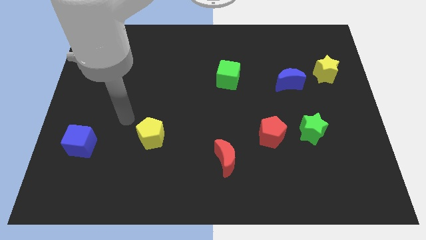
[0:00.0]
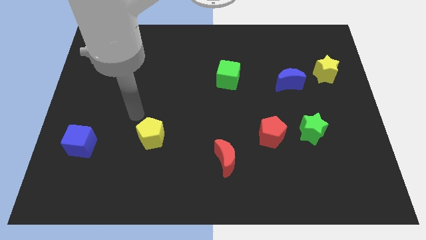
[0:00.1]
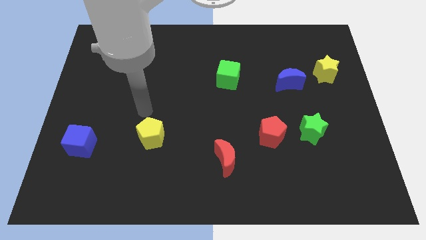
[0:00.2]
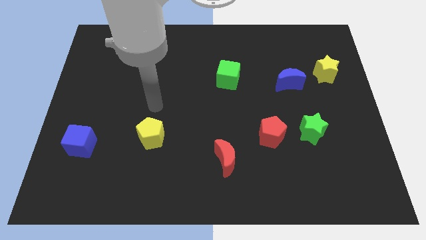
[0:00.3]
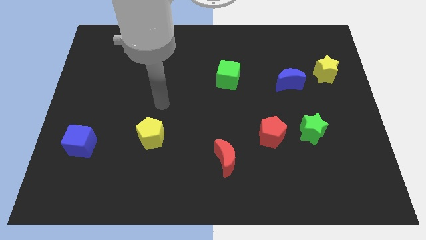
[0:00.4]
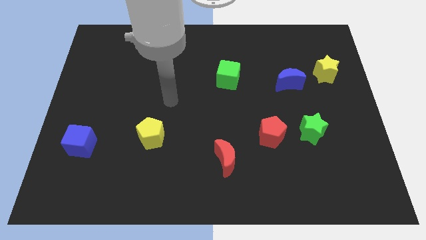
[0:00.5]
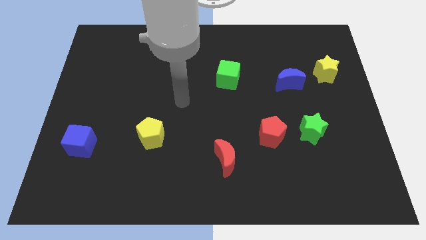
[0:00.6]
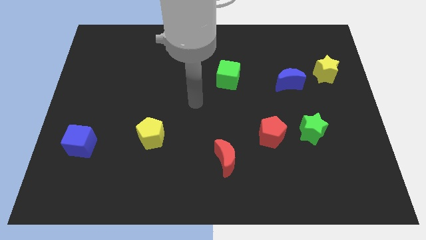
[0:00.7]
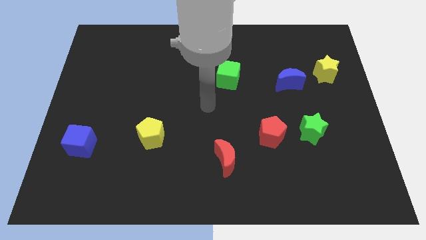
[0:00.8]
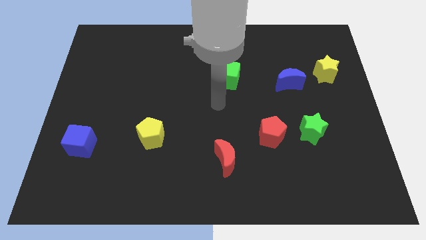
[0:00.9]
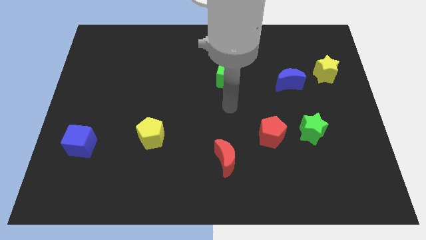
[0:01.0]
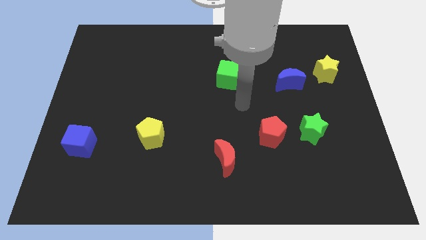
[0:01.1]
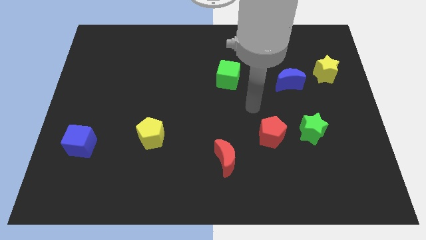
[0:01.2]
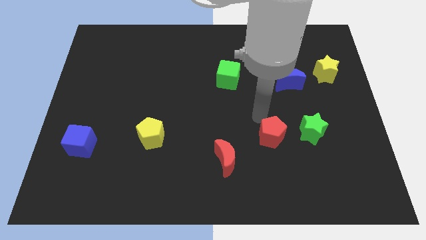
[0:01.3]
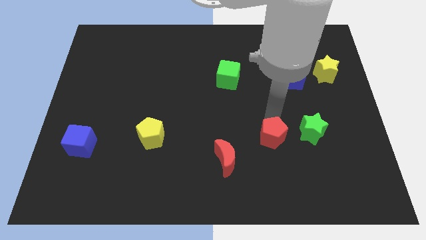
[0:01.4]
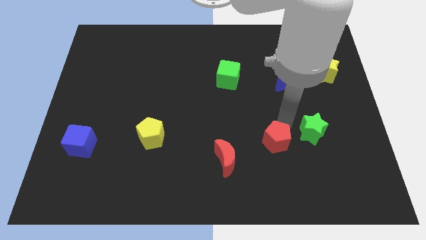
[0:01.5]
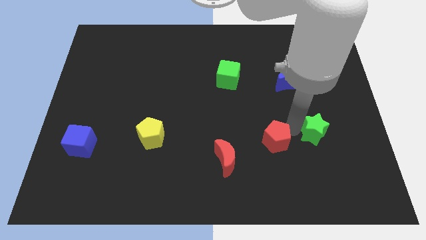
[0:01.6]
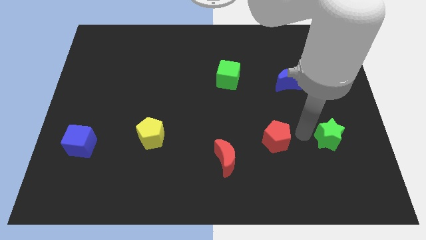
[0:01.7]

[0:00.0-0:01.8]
separate the red pentagon from the green star

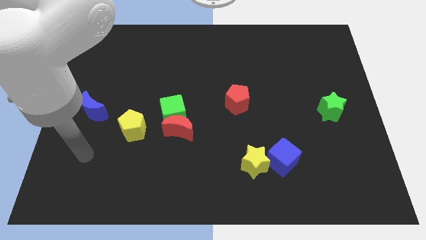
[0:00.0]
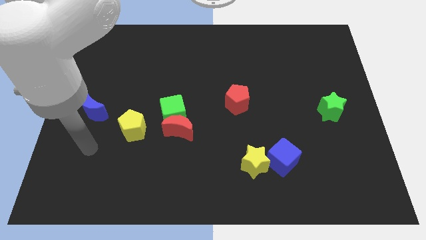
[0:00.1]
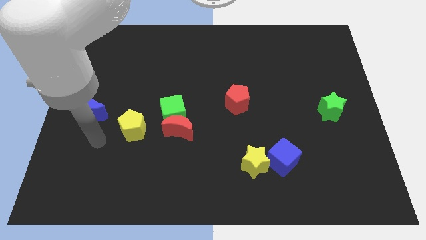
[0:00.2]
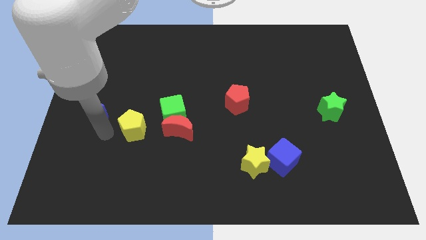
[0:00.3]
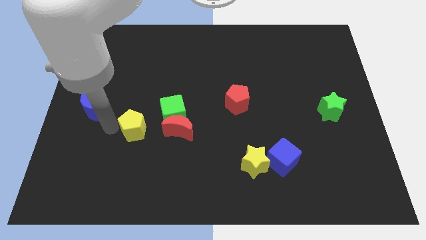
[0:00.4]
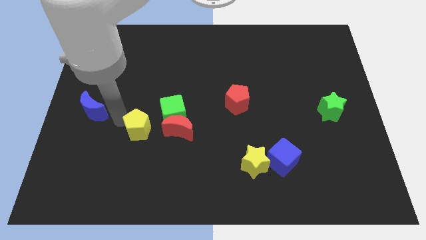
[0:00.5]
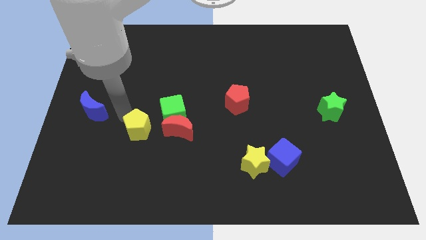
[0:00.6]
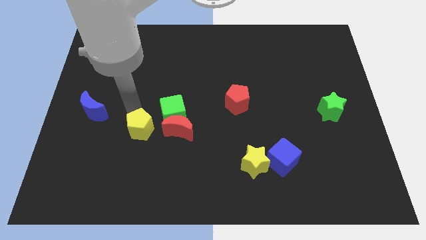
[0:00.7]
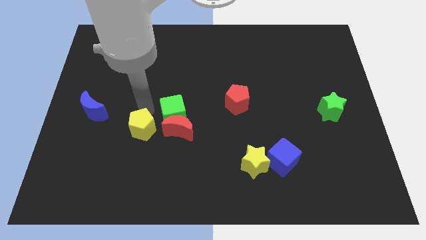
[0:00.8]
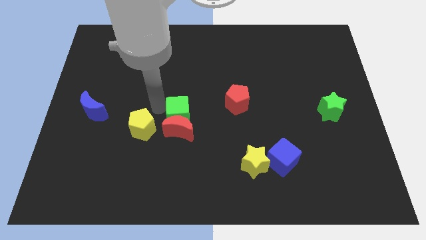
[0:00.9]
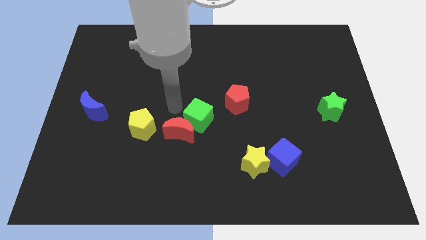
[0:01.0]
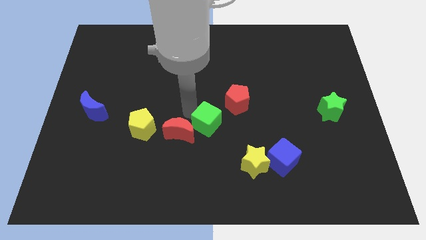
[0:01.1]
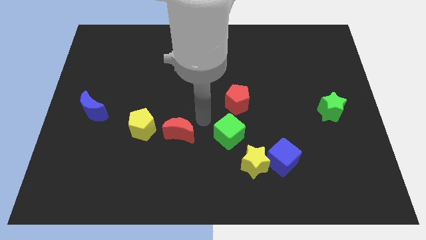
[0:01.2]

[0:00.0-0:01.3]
pull the red moon apart from the green cube

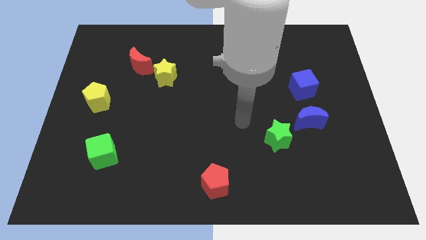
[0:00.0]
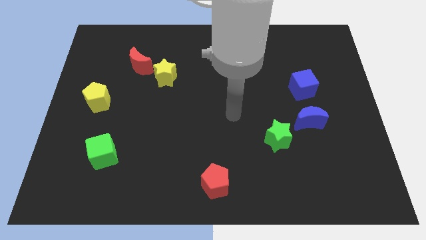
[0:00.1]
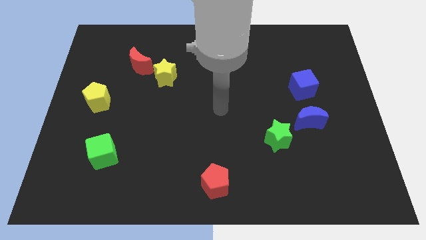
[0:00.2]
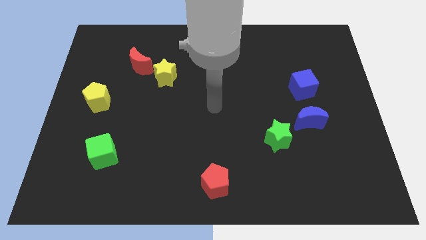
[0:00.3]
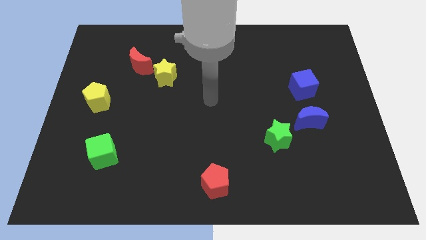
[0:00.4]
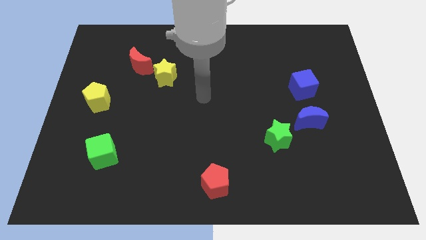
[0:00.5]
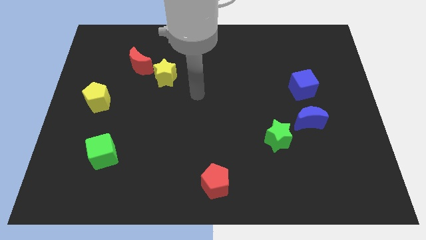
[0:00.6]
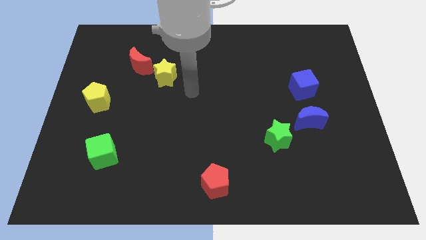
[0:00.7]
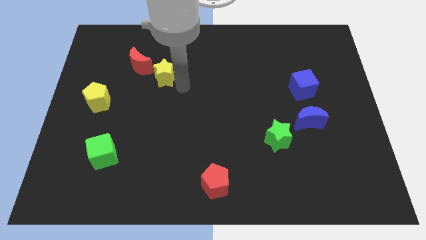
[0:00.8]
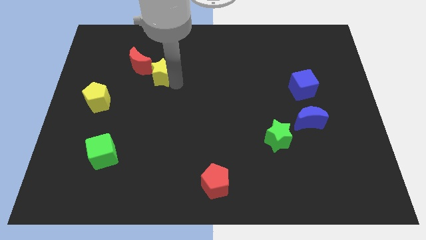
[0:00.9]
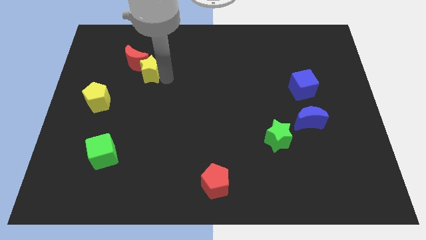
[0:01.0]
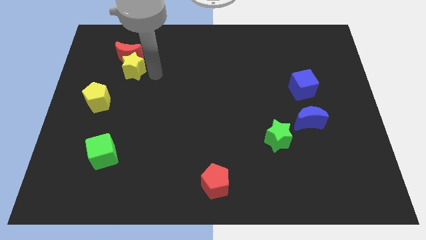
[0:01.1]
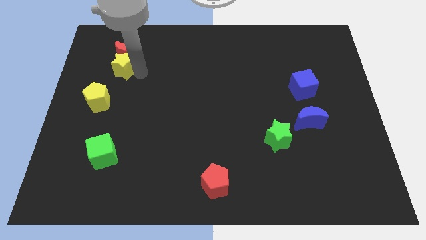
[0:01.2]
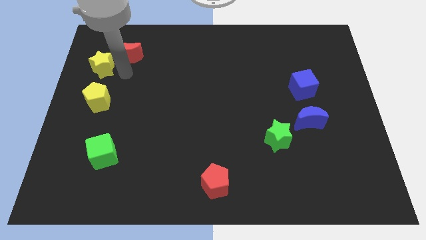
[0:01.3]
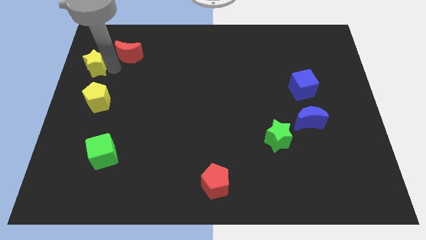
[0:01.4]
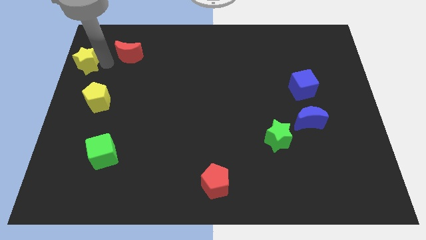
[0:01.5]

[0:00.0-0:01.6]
move the red moon away from the yellow star

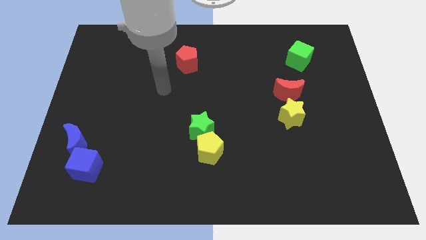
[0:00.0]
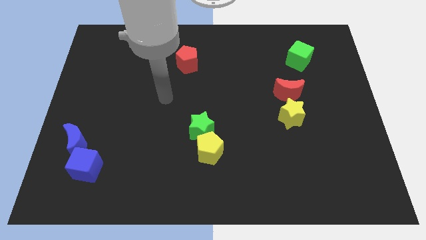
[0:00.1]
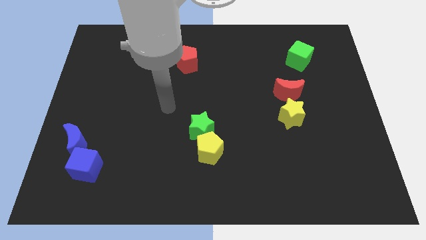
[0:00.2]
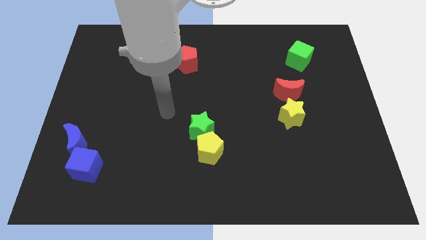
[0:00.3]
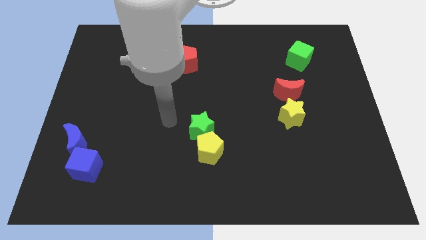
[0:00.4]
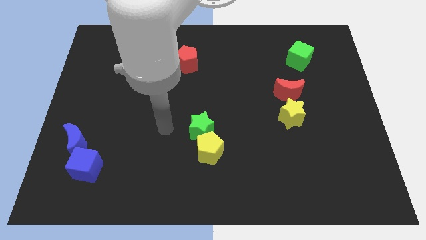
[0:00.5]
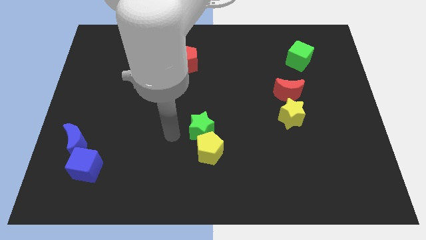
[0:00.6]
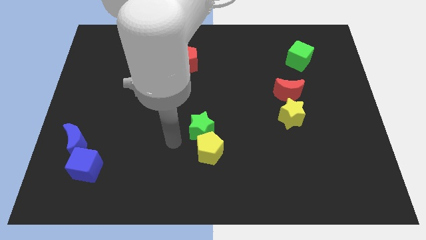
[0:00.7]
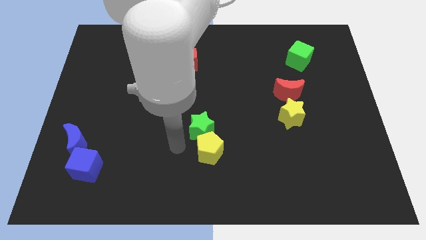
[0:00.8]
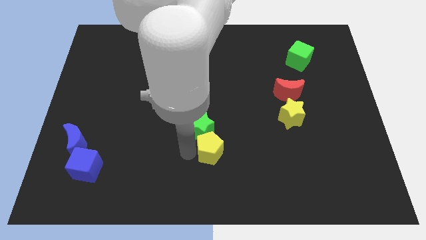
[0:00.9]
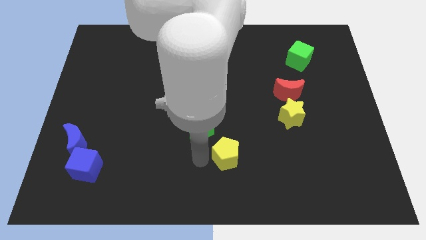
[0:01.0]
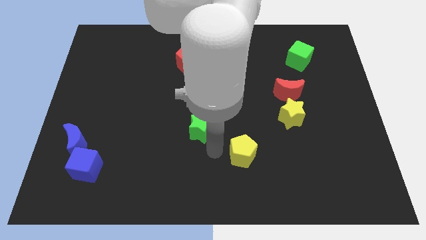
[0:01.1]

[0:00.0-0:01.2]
move the green star away from the yellow pentagon

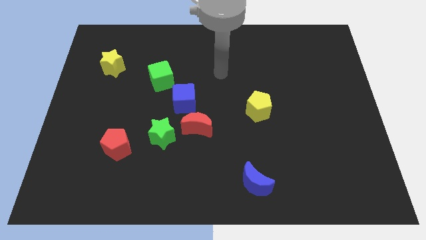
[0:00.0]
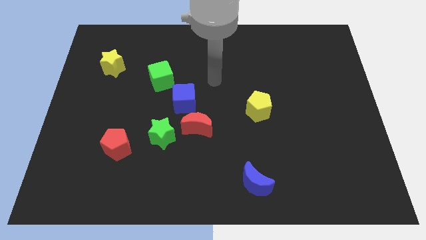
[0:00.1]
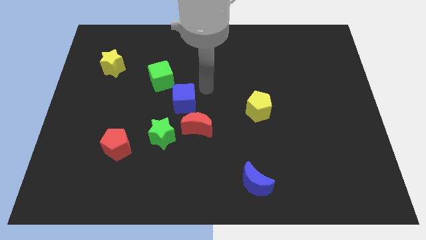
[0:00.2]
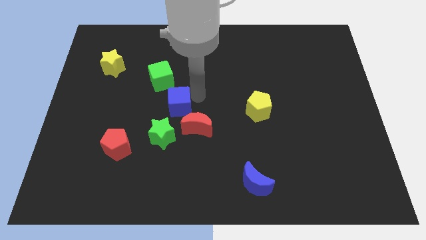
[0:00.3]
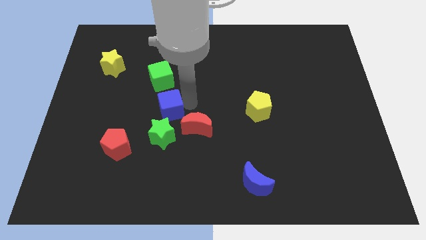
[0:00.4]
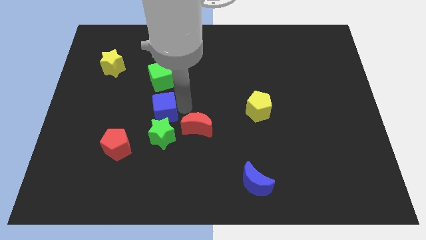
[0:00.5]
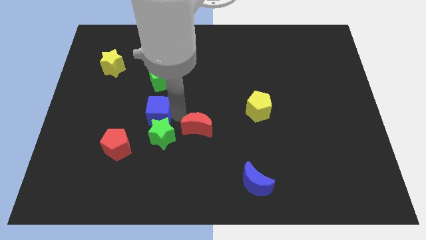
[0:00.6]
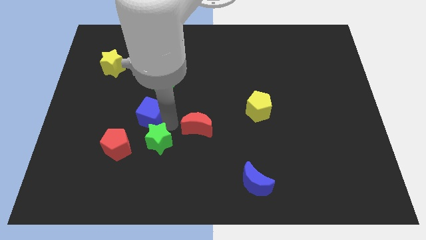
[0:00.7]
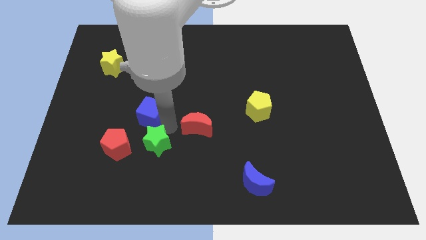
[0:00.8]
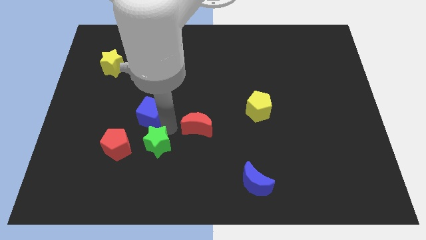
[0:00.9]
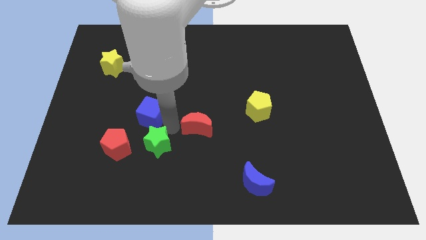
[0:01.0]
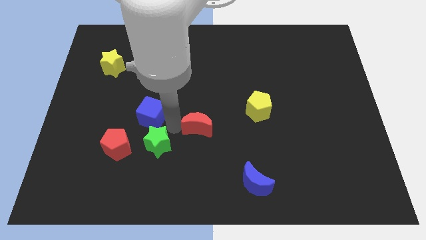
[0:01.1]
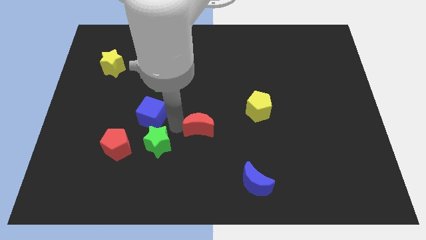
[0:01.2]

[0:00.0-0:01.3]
move the red moon away from the blue cube and green star

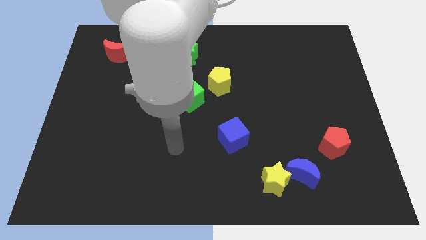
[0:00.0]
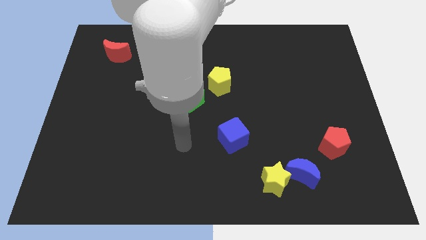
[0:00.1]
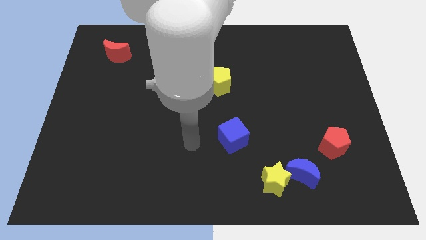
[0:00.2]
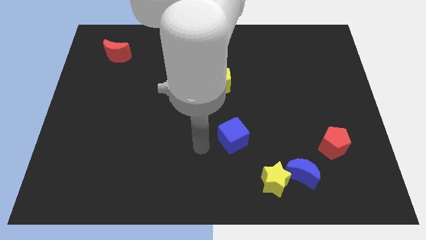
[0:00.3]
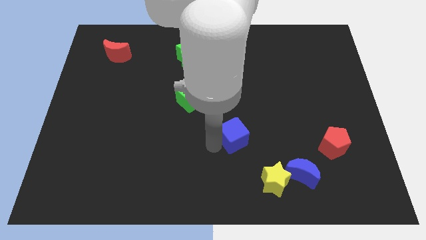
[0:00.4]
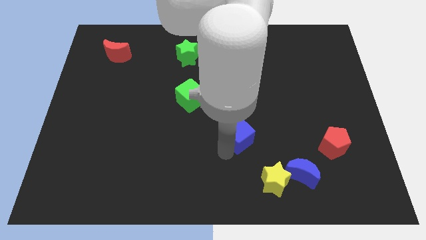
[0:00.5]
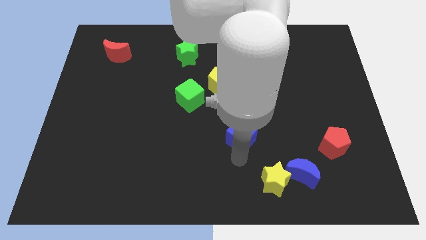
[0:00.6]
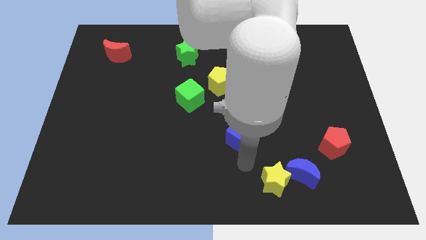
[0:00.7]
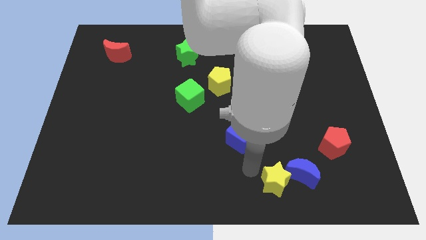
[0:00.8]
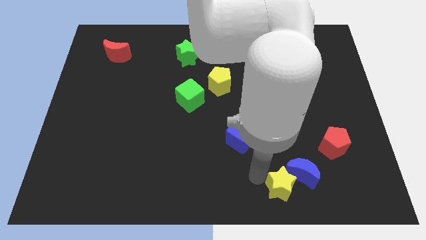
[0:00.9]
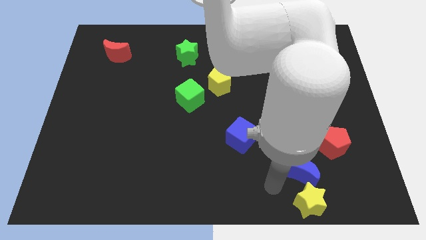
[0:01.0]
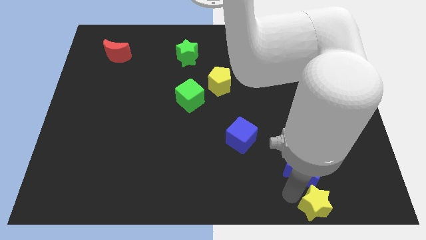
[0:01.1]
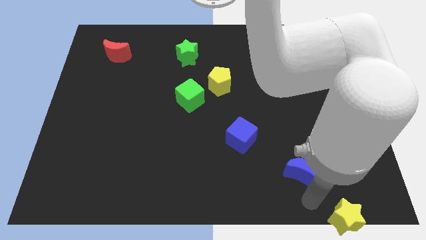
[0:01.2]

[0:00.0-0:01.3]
separate the blue moon from the yellow star

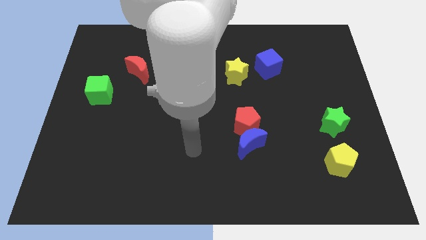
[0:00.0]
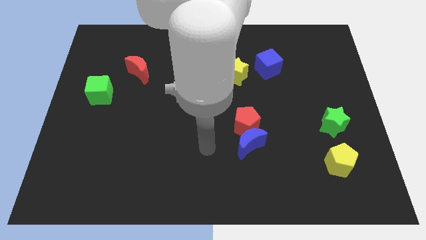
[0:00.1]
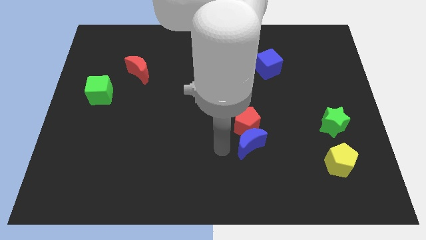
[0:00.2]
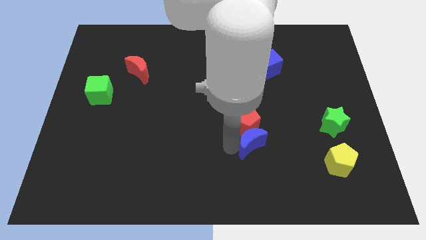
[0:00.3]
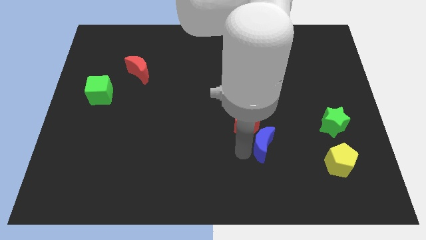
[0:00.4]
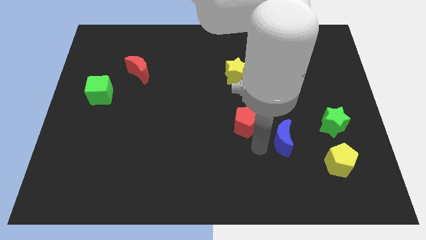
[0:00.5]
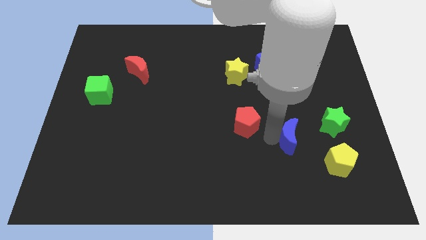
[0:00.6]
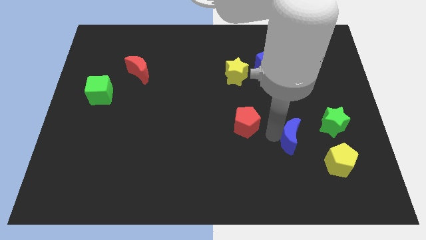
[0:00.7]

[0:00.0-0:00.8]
separate the red pentagon from the blue moon
